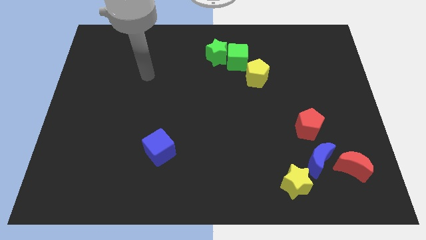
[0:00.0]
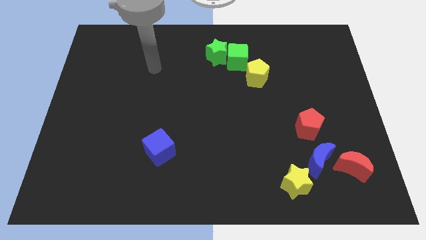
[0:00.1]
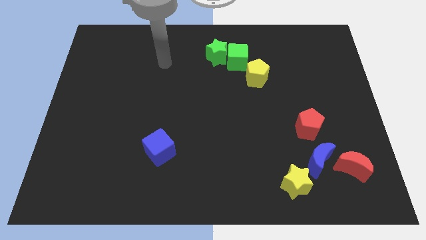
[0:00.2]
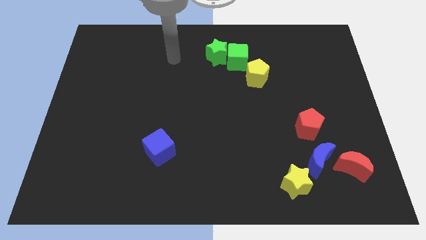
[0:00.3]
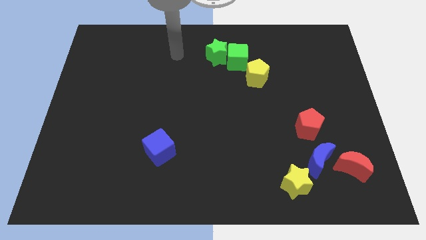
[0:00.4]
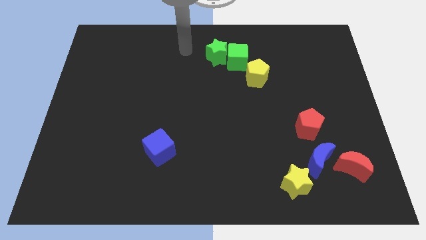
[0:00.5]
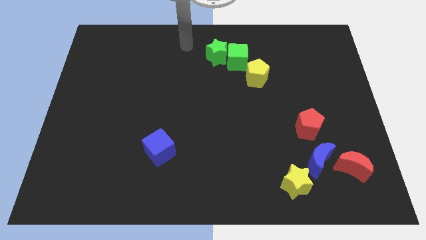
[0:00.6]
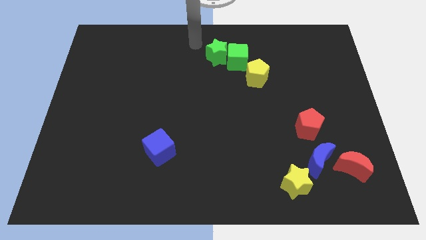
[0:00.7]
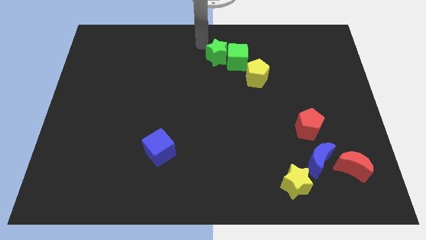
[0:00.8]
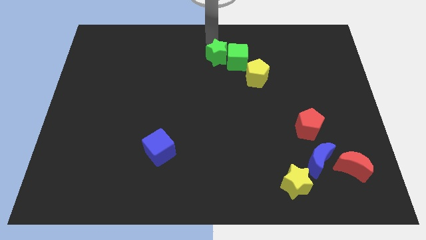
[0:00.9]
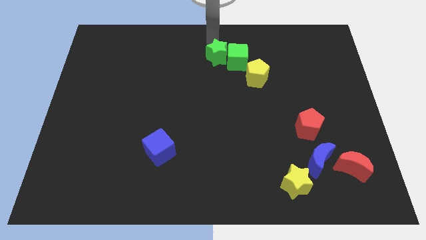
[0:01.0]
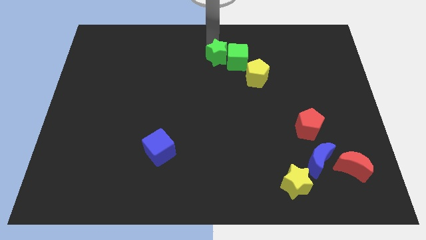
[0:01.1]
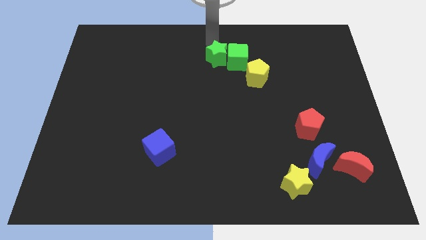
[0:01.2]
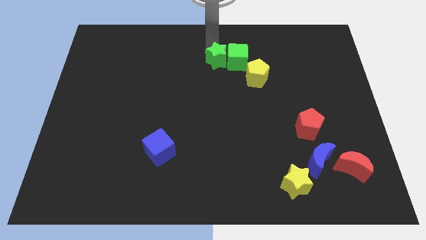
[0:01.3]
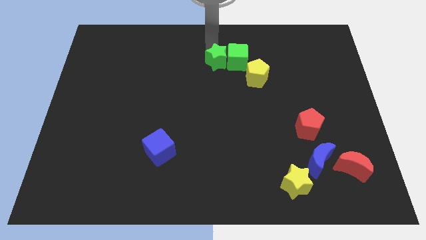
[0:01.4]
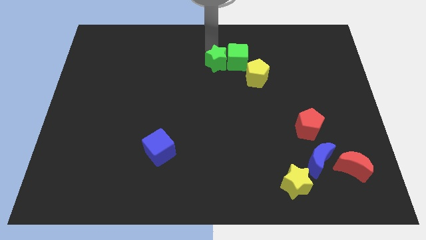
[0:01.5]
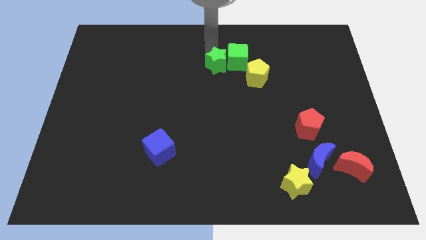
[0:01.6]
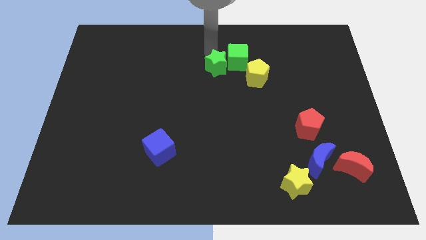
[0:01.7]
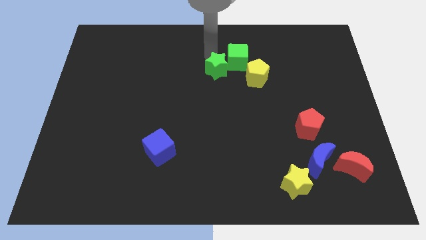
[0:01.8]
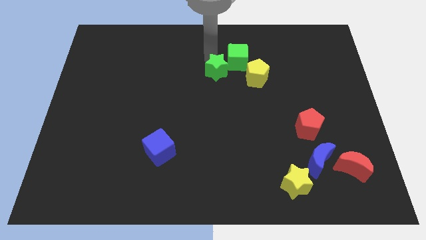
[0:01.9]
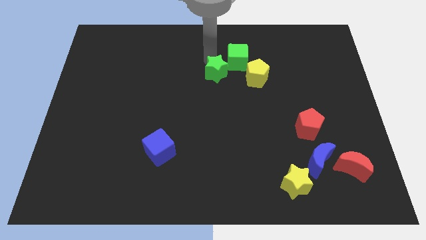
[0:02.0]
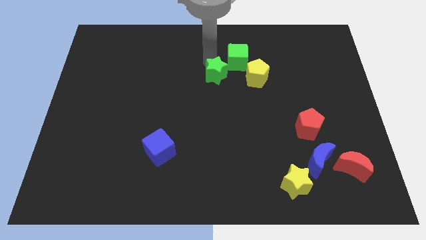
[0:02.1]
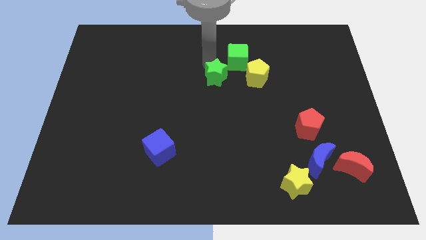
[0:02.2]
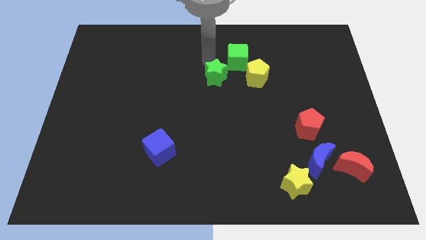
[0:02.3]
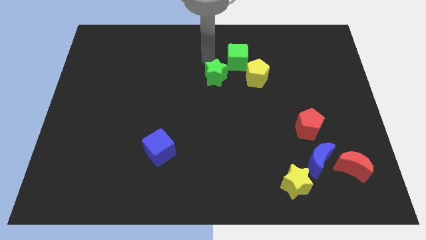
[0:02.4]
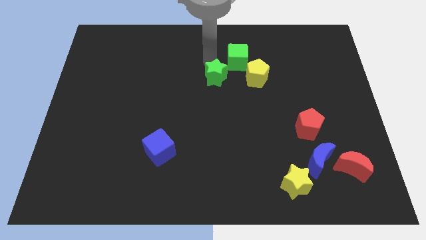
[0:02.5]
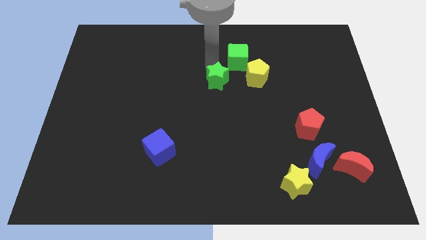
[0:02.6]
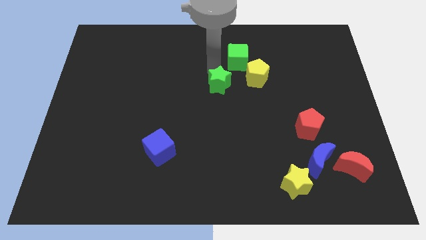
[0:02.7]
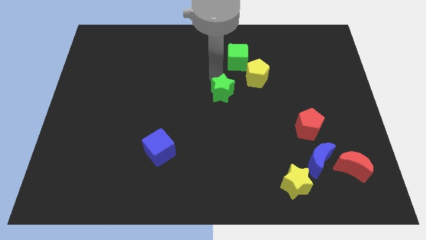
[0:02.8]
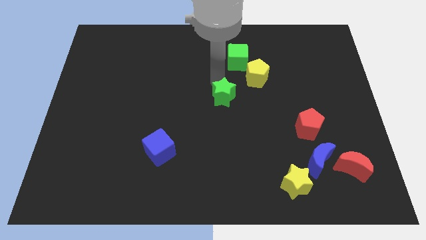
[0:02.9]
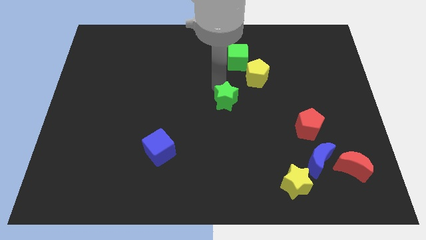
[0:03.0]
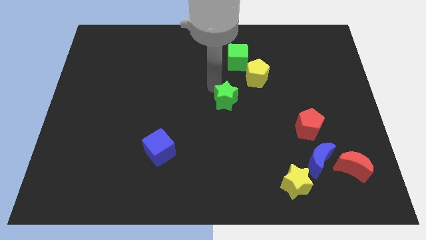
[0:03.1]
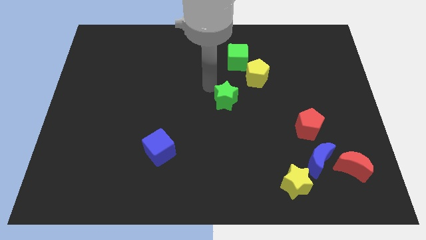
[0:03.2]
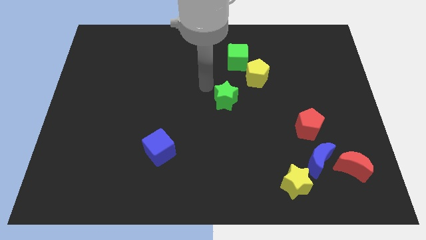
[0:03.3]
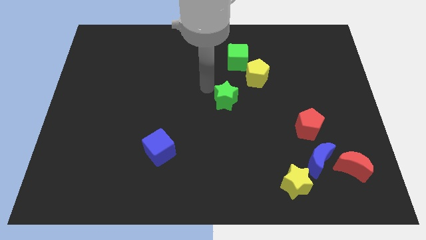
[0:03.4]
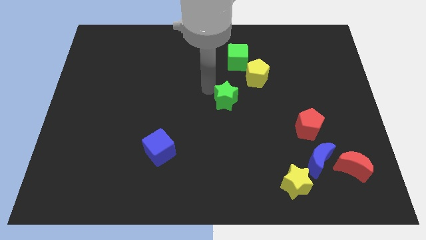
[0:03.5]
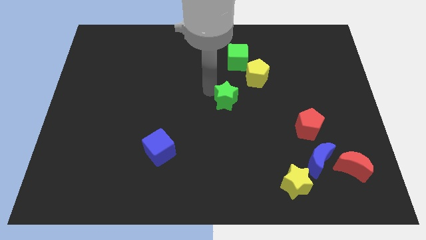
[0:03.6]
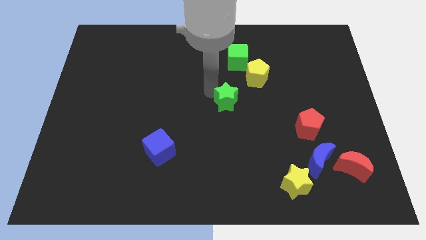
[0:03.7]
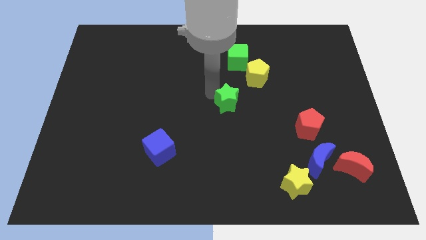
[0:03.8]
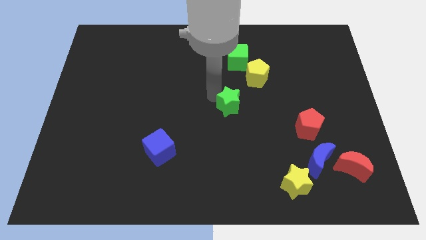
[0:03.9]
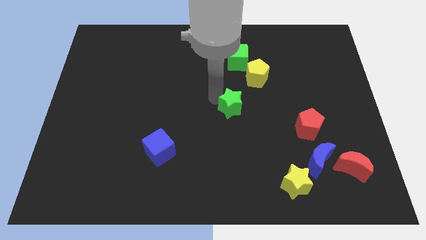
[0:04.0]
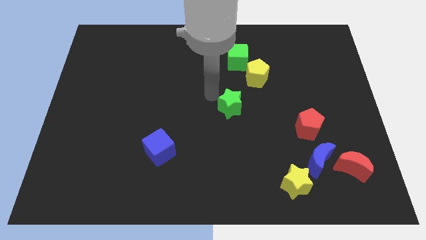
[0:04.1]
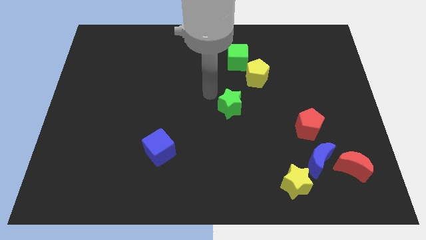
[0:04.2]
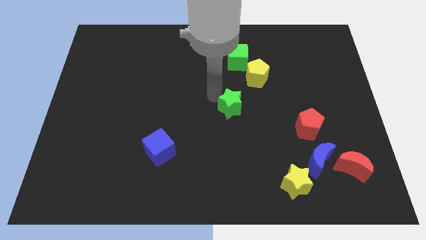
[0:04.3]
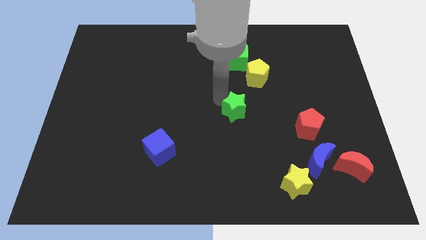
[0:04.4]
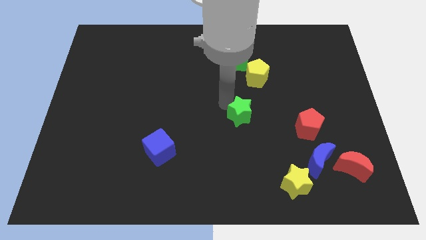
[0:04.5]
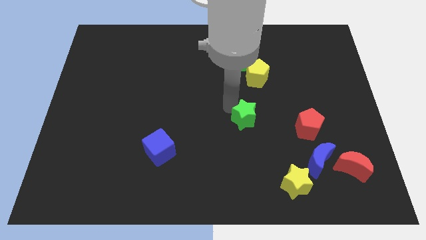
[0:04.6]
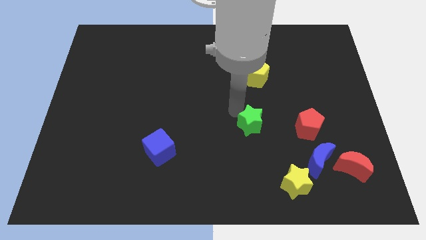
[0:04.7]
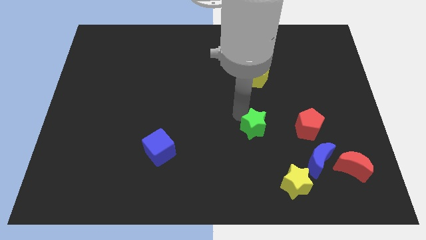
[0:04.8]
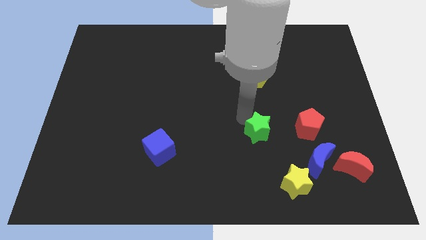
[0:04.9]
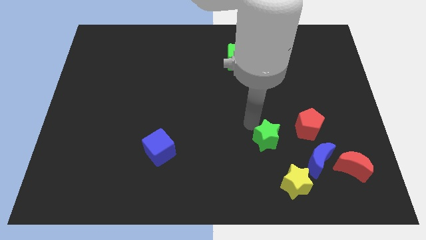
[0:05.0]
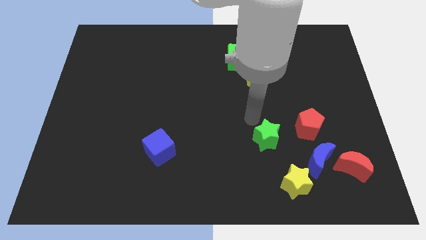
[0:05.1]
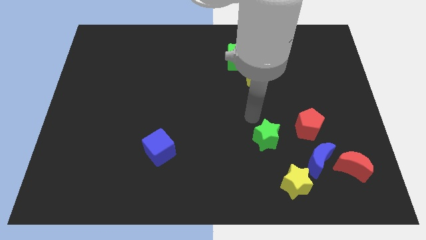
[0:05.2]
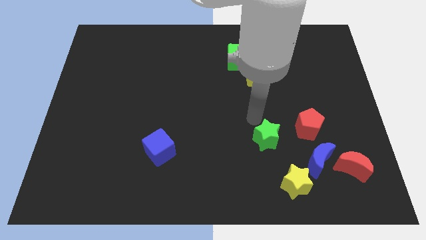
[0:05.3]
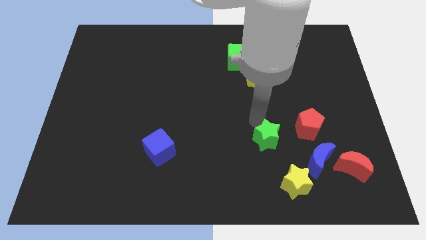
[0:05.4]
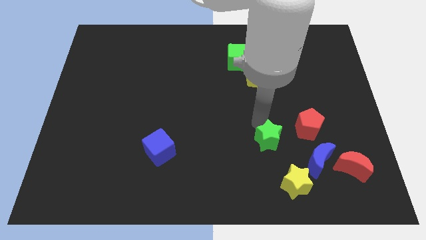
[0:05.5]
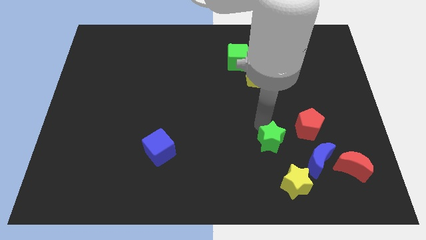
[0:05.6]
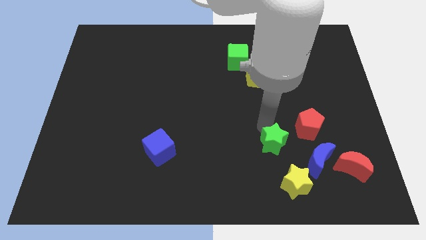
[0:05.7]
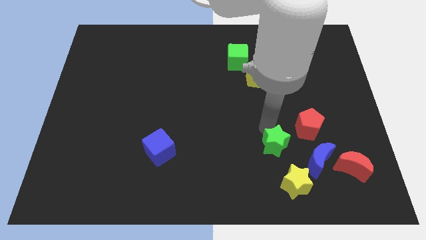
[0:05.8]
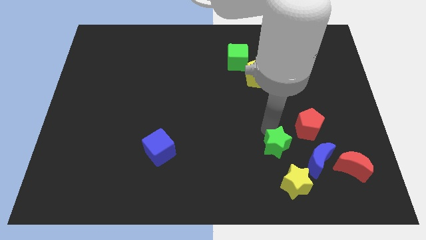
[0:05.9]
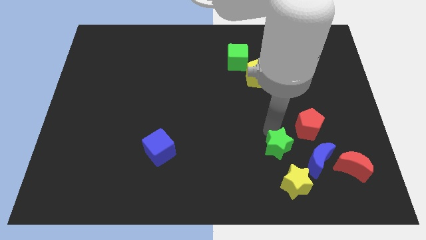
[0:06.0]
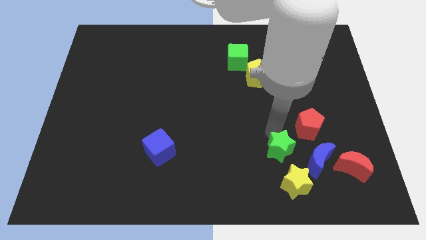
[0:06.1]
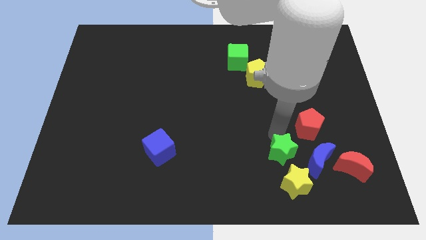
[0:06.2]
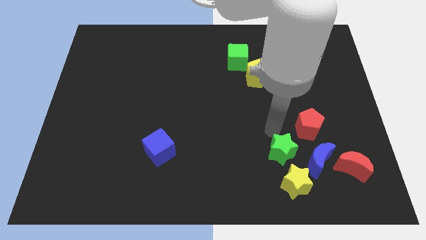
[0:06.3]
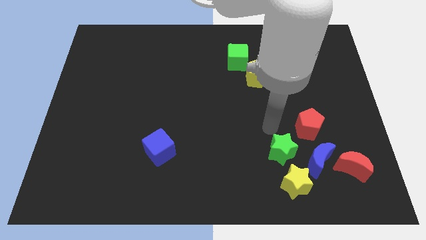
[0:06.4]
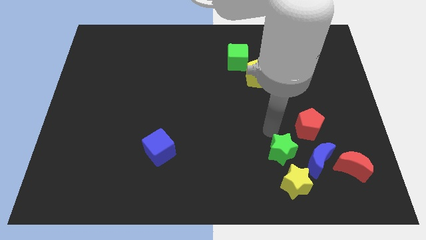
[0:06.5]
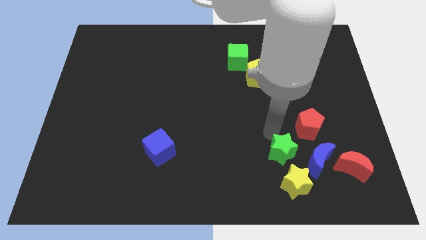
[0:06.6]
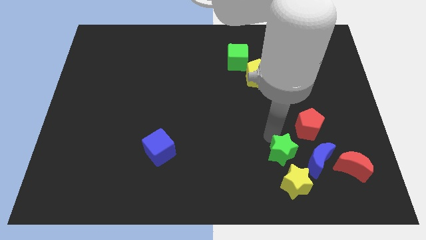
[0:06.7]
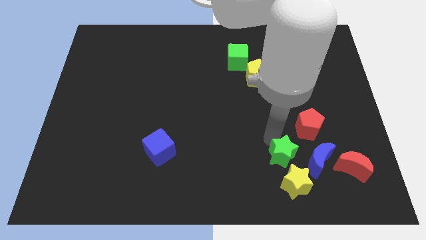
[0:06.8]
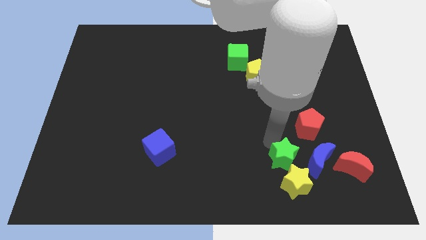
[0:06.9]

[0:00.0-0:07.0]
slide the green star towards the yellow star
